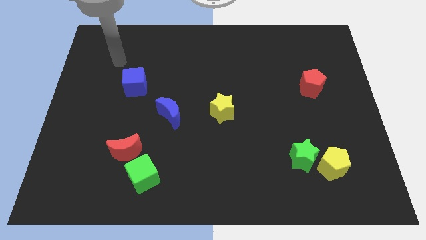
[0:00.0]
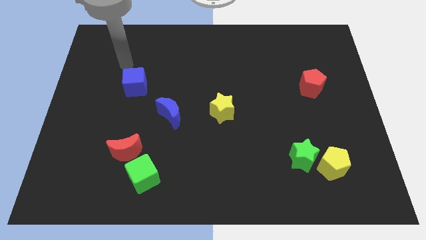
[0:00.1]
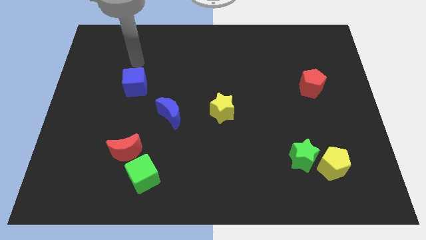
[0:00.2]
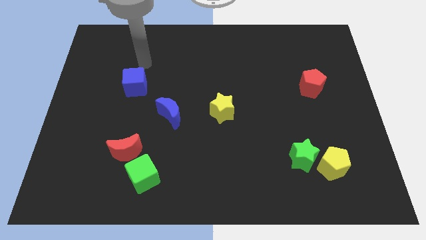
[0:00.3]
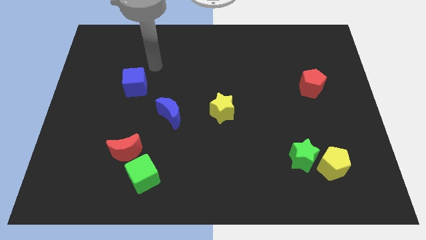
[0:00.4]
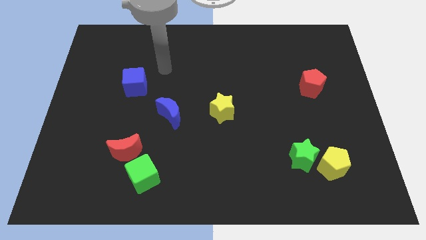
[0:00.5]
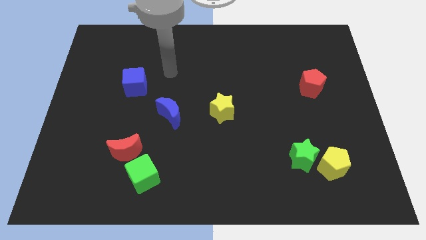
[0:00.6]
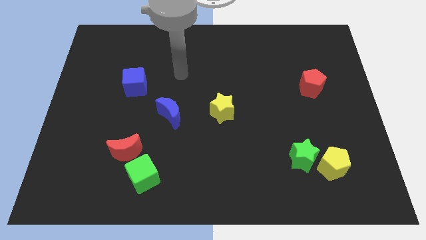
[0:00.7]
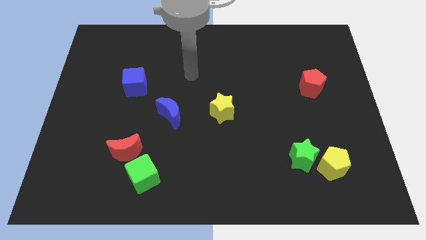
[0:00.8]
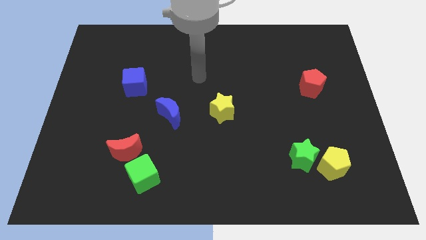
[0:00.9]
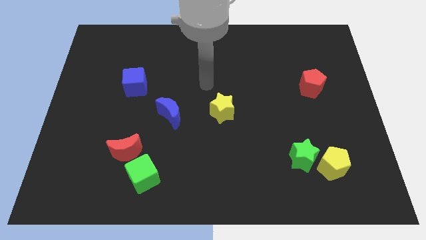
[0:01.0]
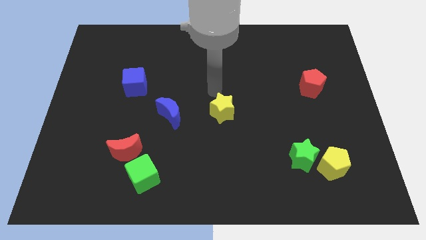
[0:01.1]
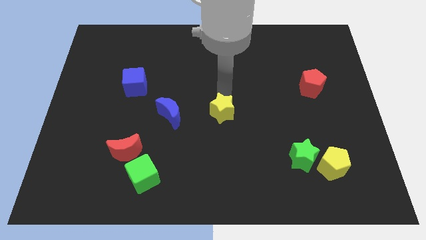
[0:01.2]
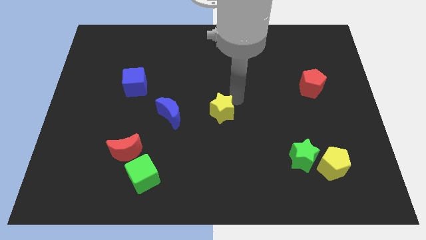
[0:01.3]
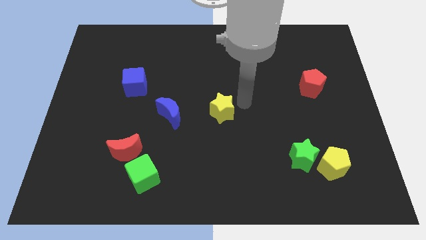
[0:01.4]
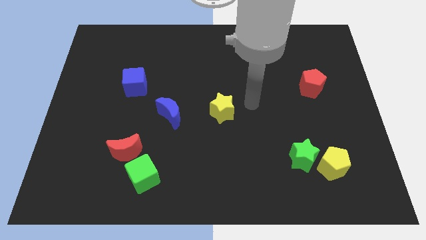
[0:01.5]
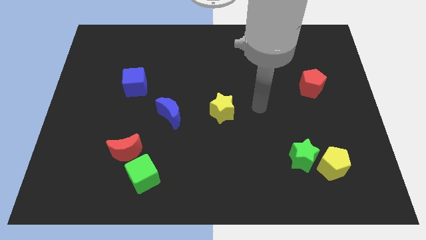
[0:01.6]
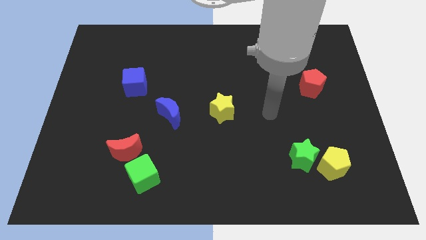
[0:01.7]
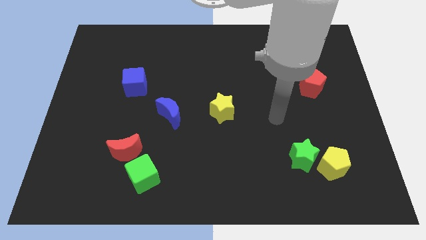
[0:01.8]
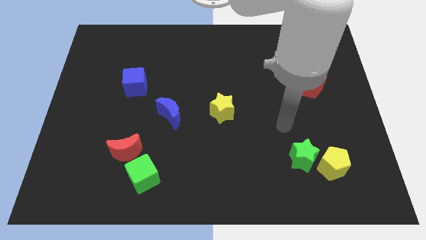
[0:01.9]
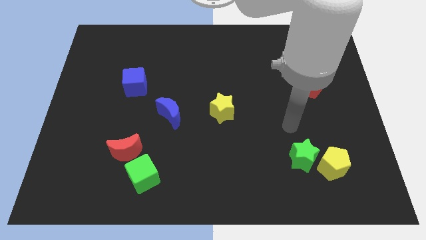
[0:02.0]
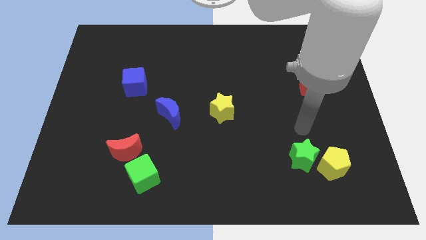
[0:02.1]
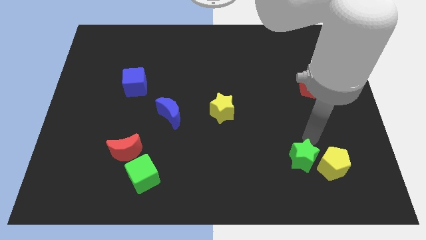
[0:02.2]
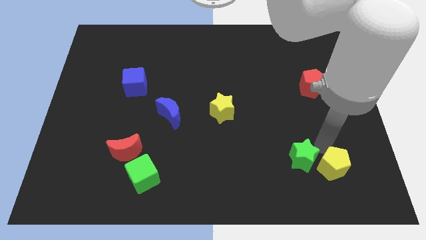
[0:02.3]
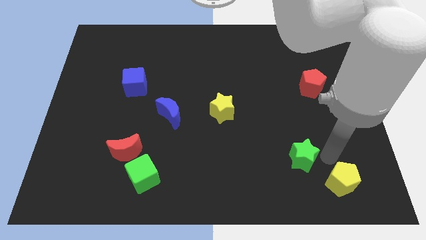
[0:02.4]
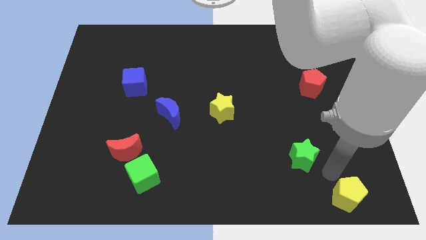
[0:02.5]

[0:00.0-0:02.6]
move the green star away from the yellow pentagon

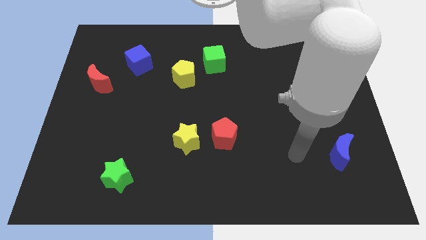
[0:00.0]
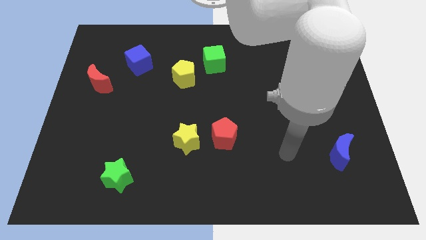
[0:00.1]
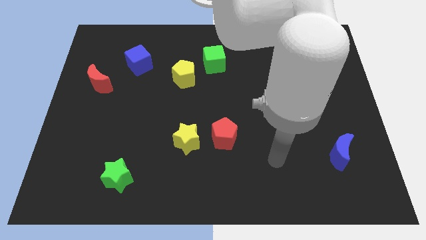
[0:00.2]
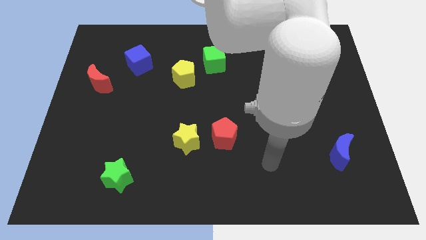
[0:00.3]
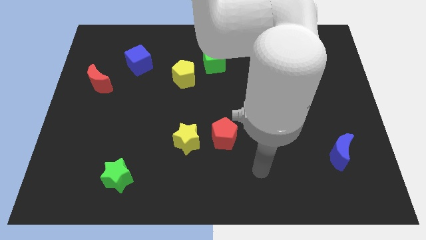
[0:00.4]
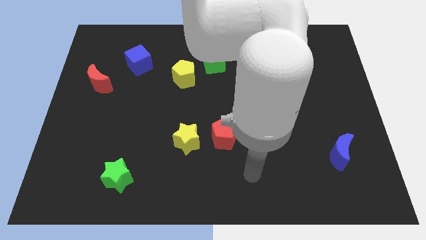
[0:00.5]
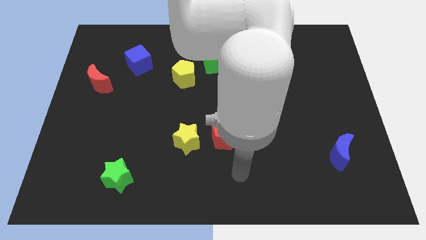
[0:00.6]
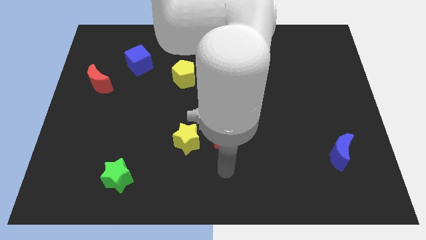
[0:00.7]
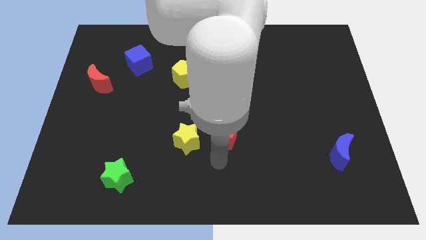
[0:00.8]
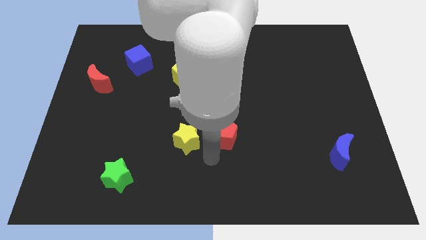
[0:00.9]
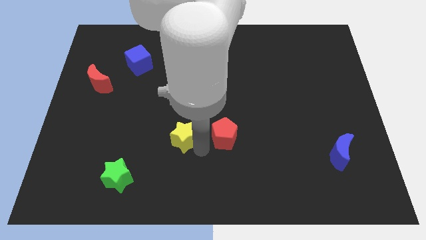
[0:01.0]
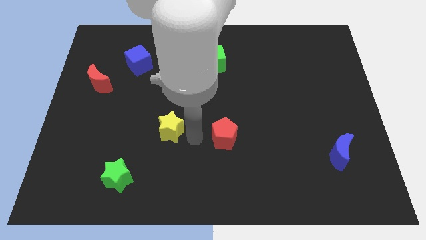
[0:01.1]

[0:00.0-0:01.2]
move the red pentagon away from the yellow star

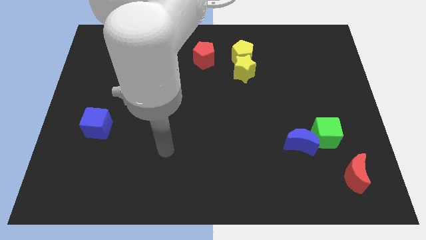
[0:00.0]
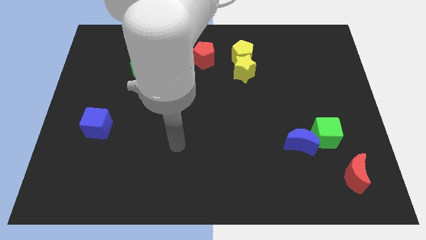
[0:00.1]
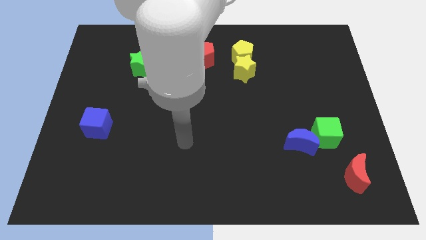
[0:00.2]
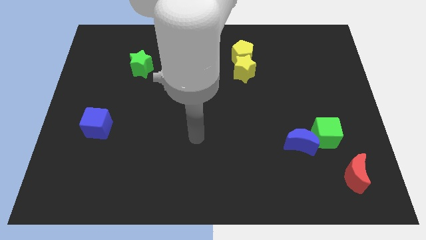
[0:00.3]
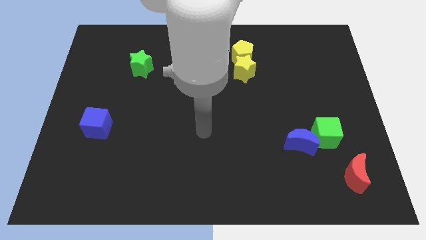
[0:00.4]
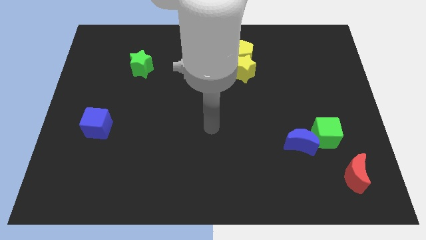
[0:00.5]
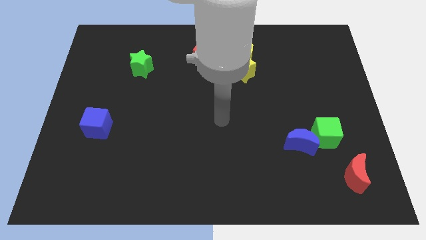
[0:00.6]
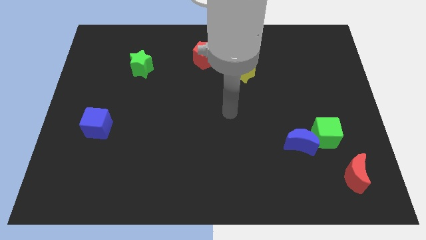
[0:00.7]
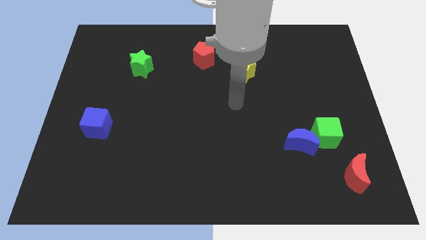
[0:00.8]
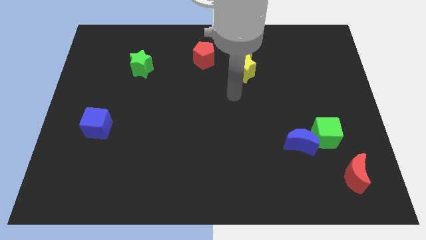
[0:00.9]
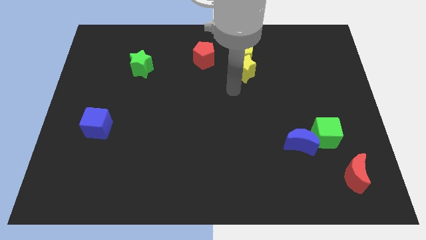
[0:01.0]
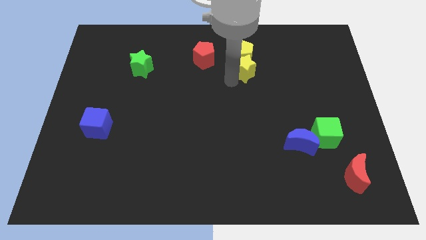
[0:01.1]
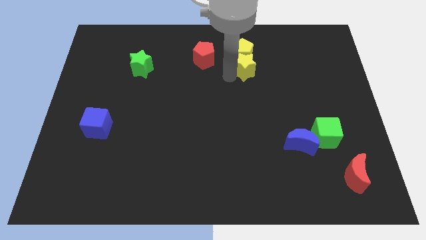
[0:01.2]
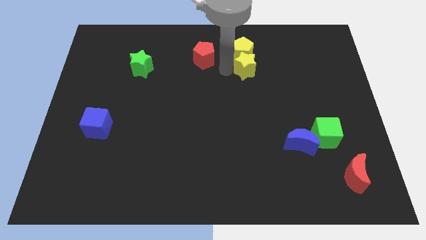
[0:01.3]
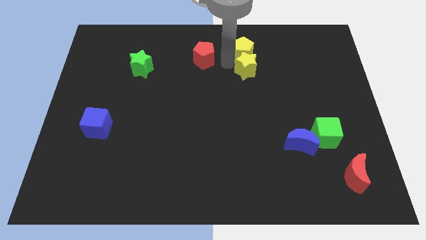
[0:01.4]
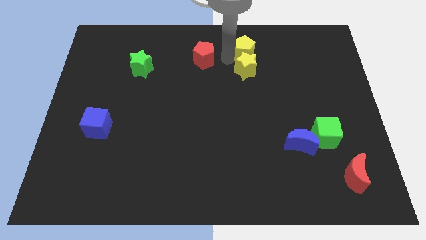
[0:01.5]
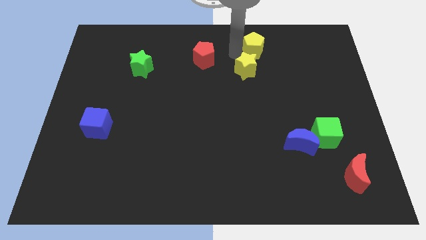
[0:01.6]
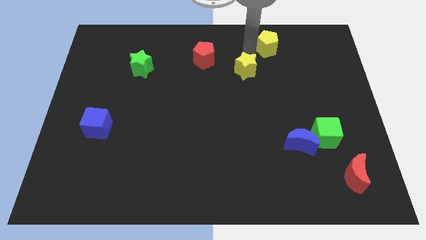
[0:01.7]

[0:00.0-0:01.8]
separate the yellow star from the yellow pentagon

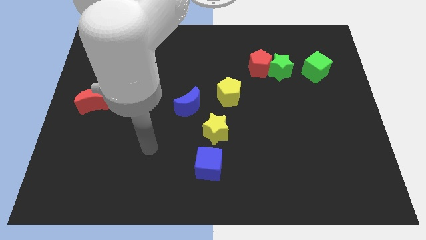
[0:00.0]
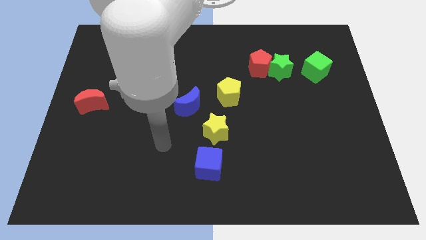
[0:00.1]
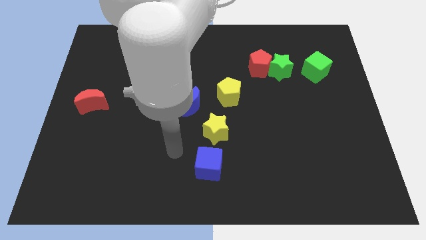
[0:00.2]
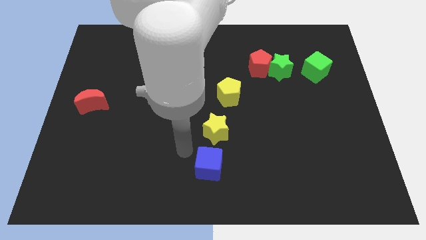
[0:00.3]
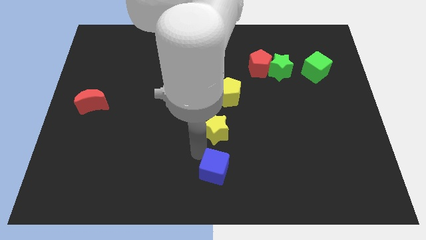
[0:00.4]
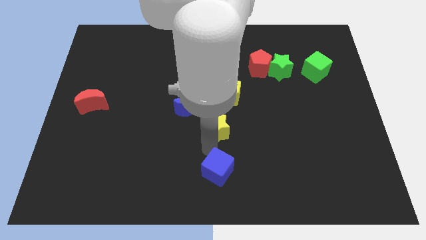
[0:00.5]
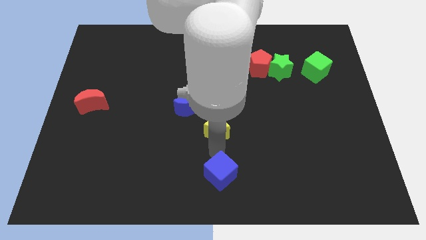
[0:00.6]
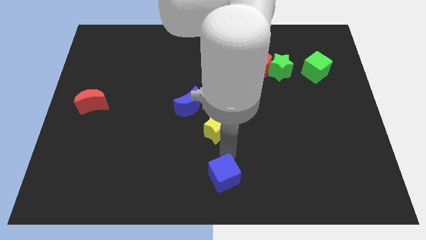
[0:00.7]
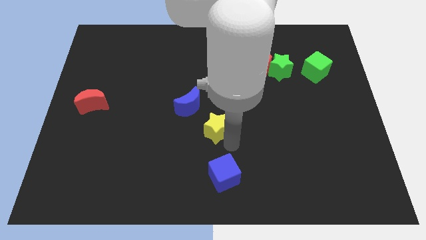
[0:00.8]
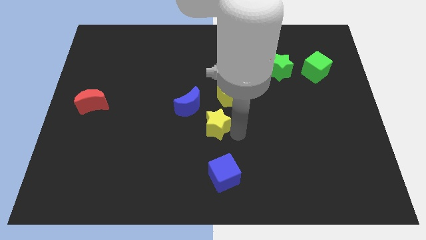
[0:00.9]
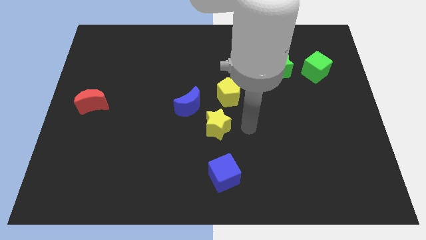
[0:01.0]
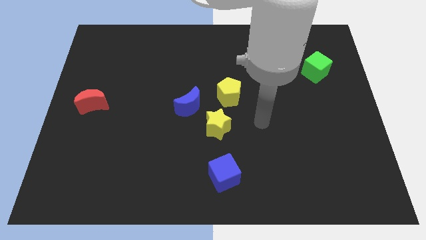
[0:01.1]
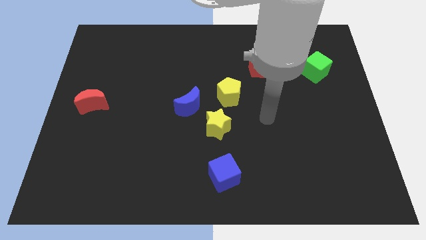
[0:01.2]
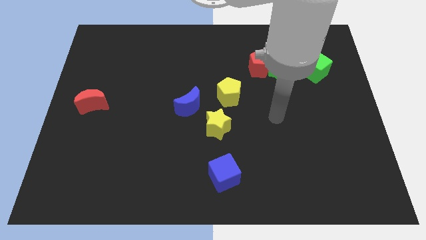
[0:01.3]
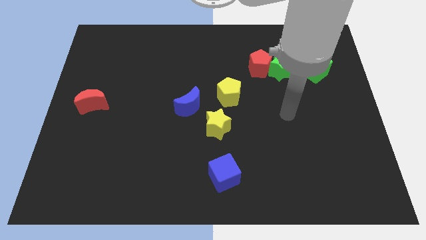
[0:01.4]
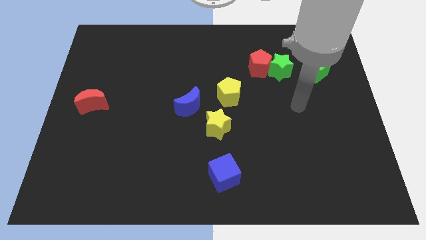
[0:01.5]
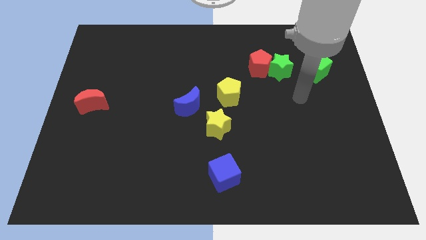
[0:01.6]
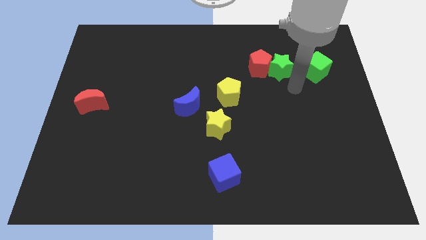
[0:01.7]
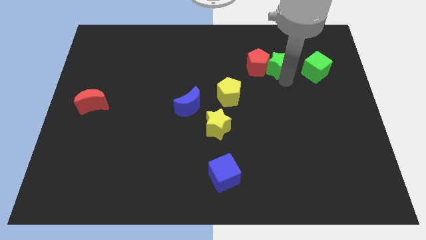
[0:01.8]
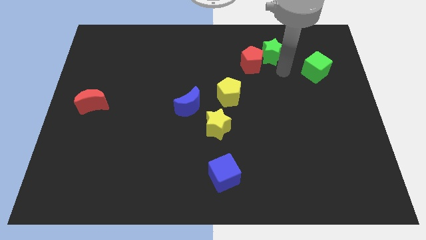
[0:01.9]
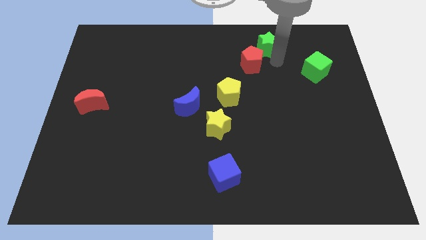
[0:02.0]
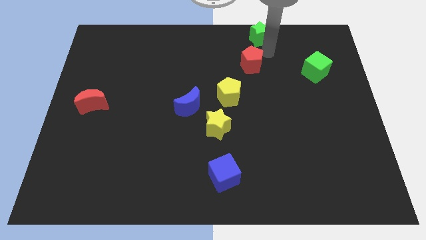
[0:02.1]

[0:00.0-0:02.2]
pull the red pentagon apart from the green star

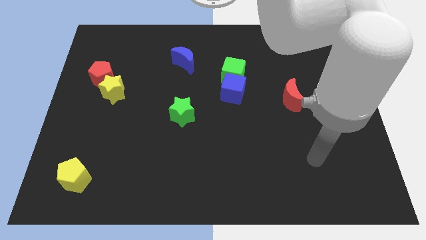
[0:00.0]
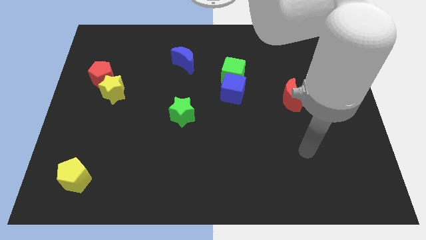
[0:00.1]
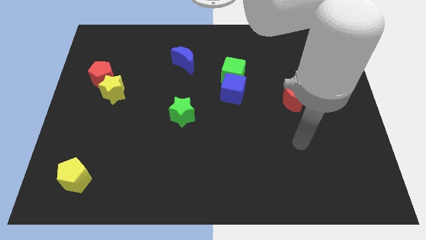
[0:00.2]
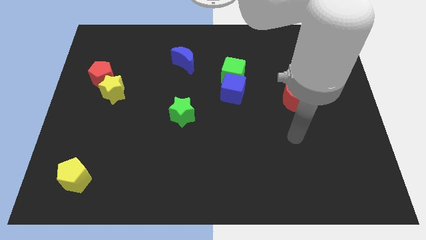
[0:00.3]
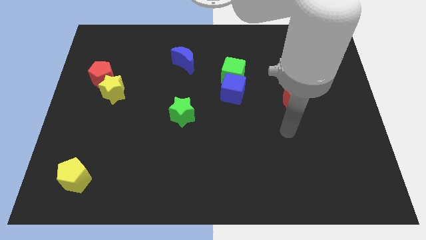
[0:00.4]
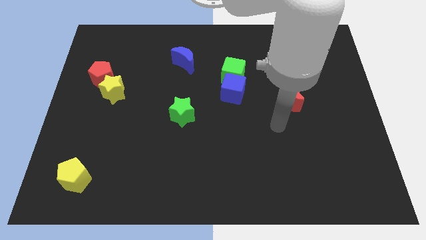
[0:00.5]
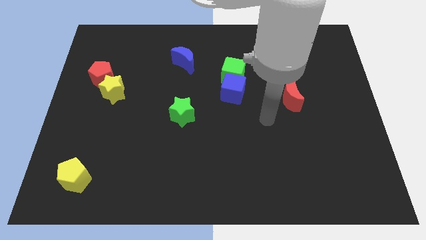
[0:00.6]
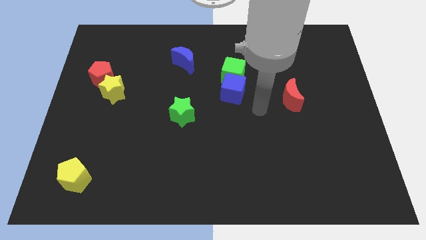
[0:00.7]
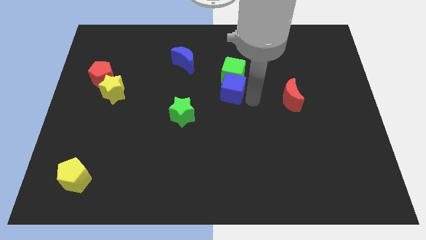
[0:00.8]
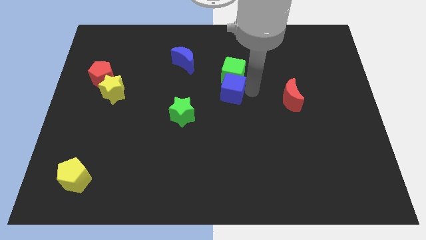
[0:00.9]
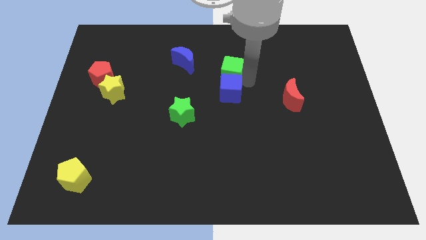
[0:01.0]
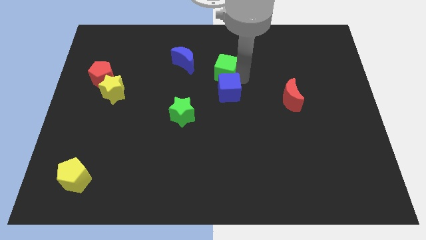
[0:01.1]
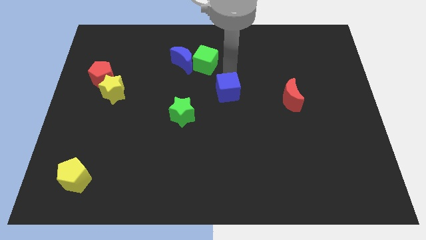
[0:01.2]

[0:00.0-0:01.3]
move the blue cube away from the green cube

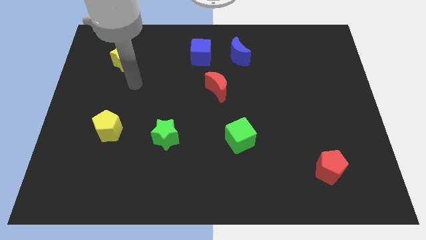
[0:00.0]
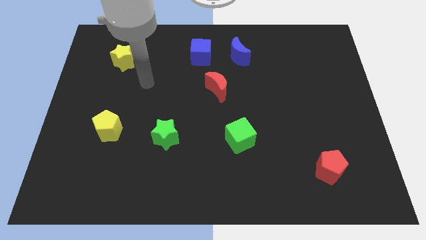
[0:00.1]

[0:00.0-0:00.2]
separate the blue moon from the blue cube
